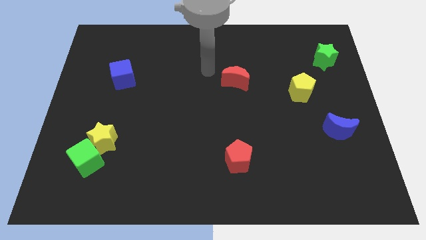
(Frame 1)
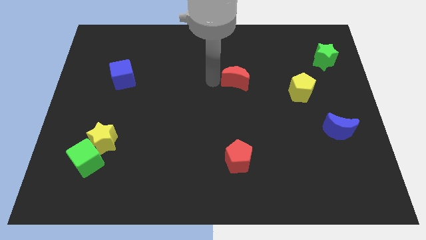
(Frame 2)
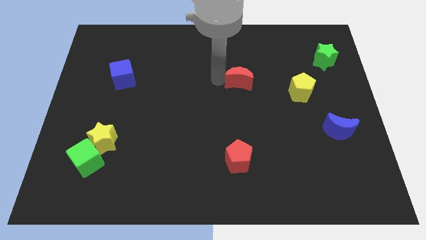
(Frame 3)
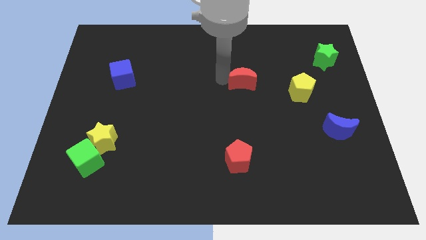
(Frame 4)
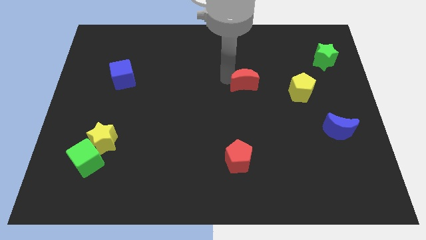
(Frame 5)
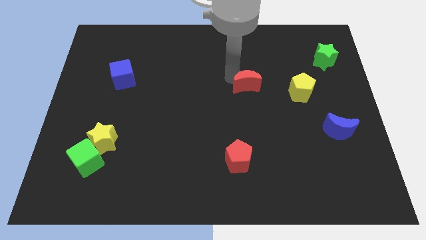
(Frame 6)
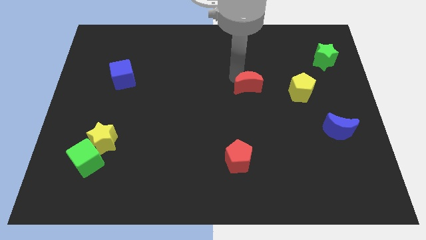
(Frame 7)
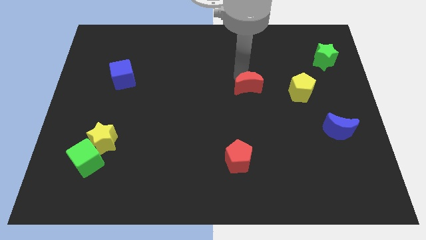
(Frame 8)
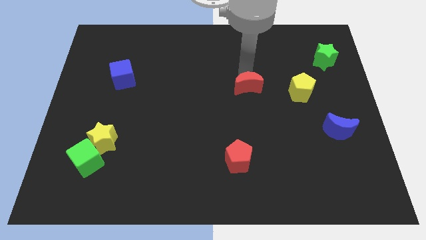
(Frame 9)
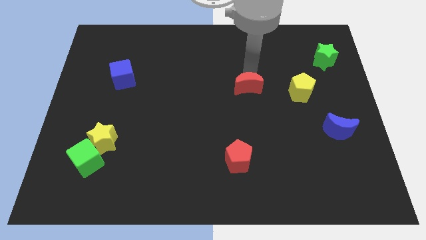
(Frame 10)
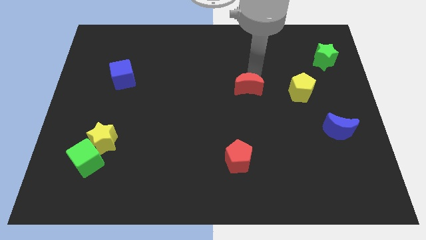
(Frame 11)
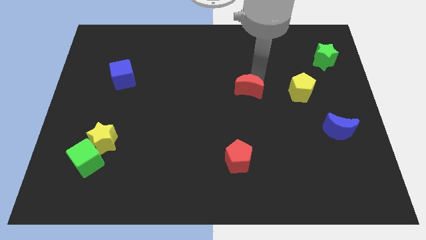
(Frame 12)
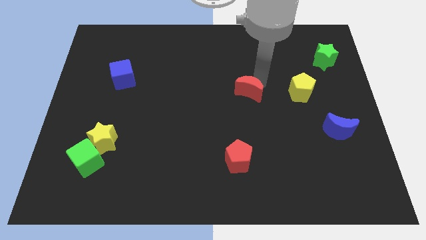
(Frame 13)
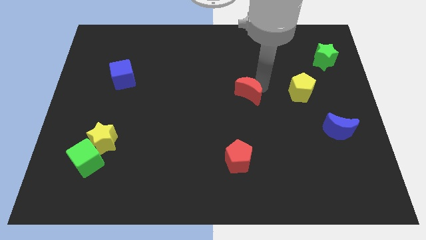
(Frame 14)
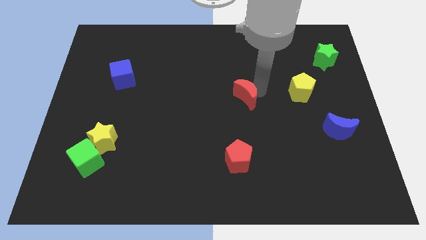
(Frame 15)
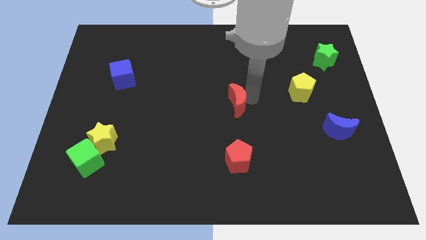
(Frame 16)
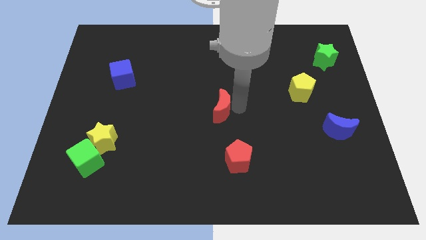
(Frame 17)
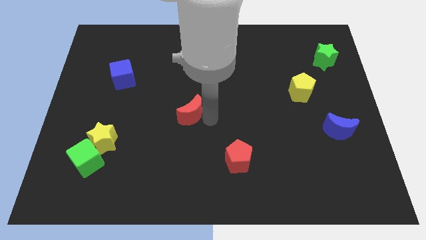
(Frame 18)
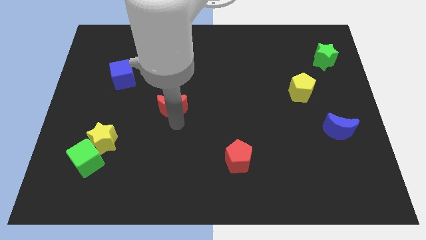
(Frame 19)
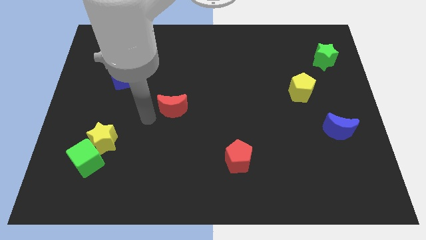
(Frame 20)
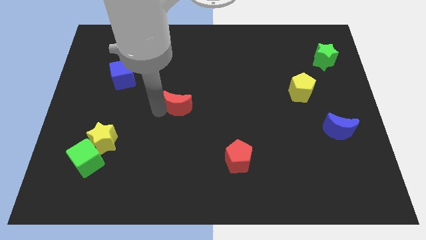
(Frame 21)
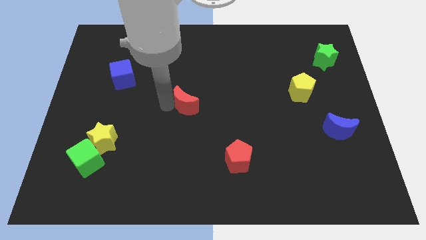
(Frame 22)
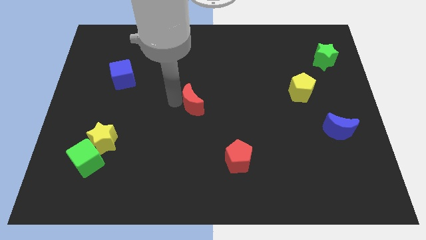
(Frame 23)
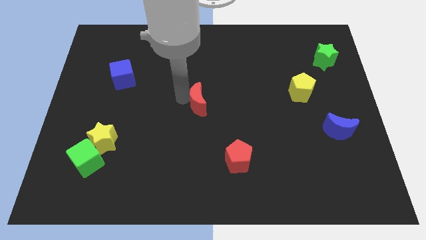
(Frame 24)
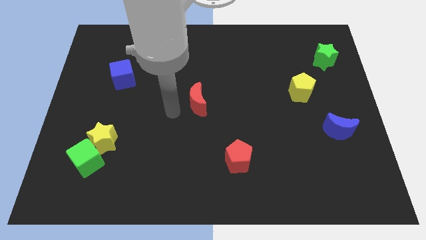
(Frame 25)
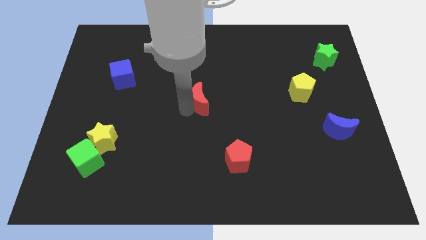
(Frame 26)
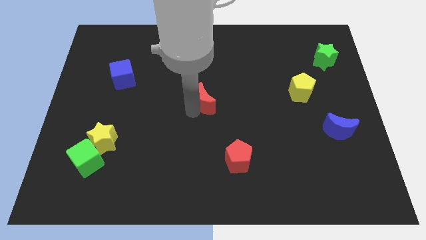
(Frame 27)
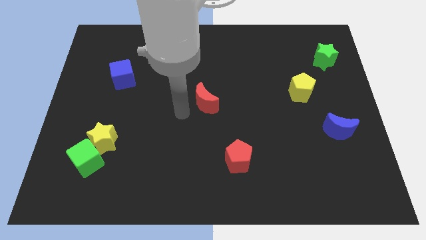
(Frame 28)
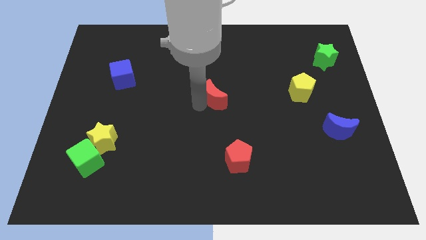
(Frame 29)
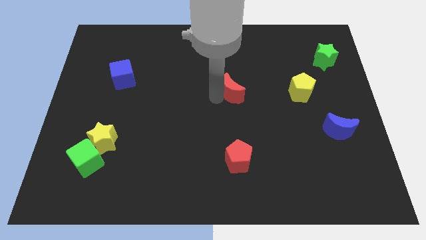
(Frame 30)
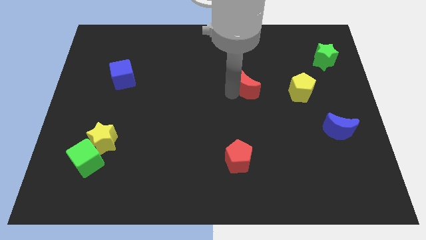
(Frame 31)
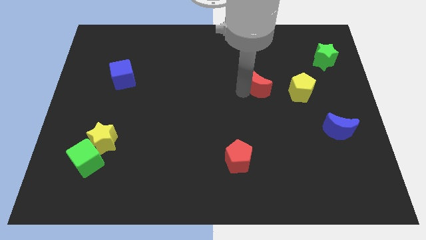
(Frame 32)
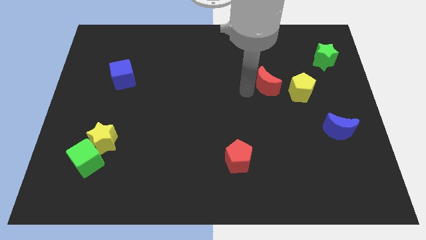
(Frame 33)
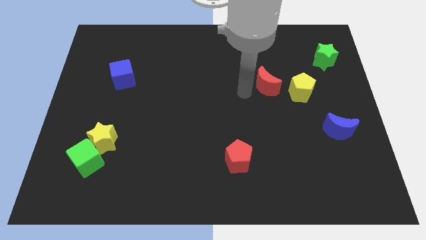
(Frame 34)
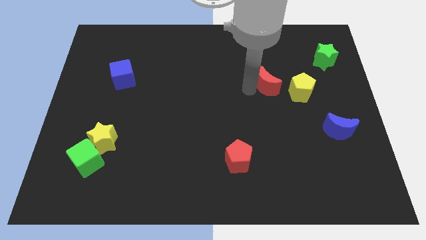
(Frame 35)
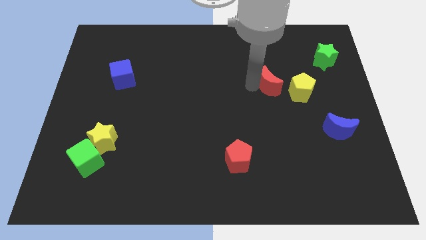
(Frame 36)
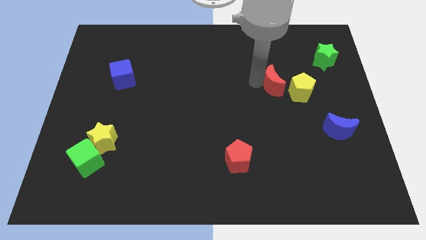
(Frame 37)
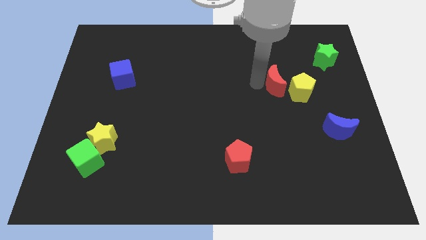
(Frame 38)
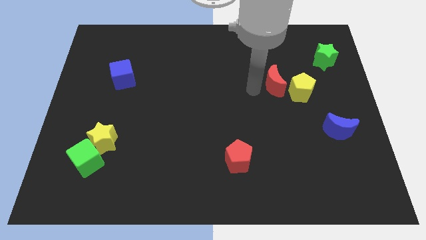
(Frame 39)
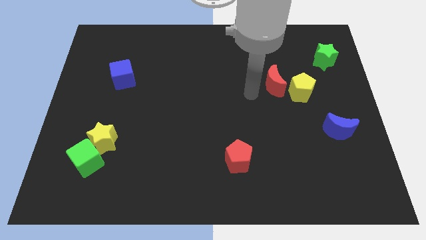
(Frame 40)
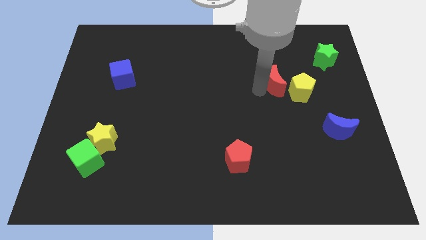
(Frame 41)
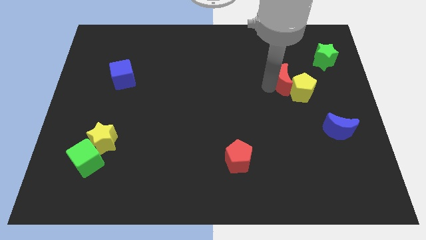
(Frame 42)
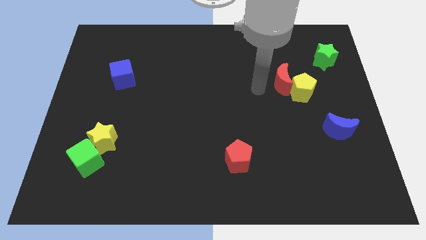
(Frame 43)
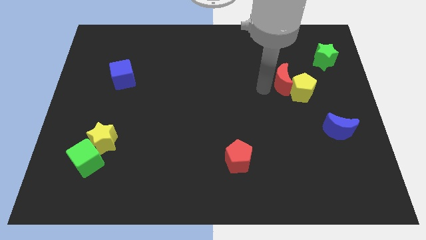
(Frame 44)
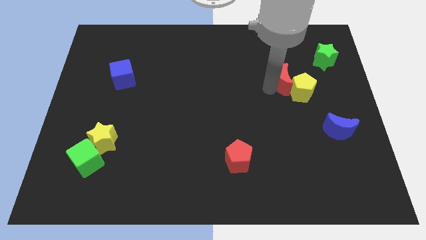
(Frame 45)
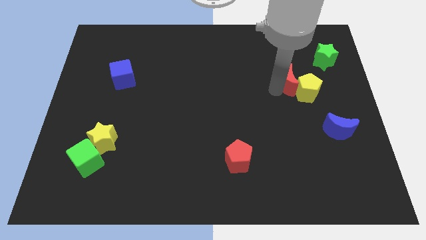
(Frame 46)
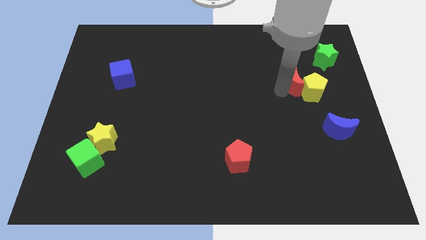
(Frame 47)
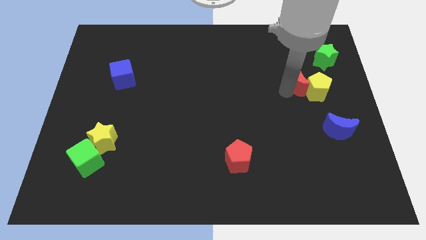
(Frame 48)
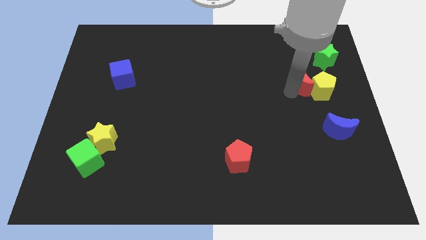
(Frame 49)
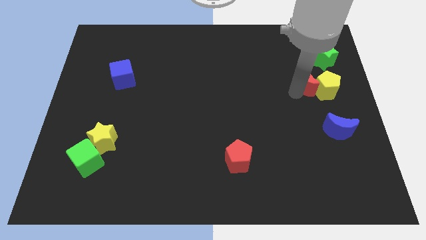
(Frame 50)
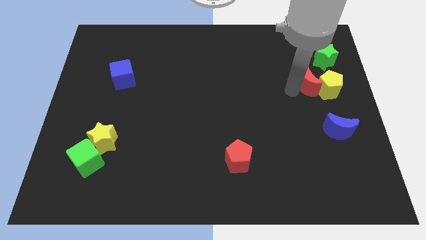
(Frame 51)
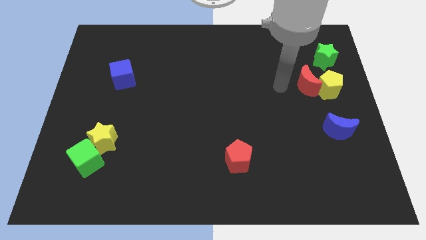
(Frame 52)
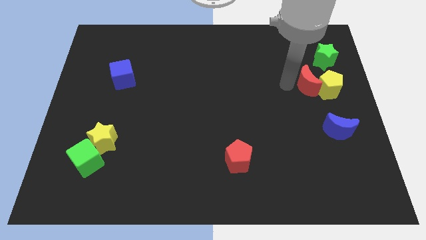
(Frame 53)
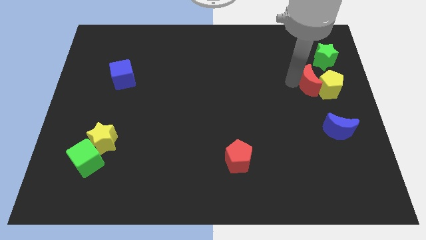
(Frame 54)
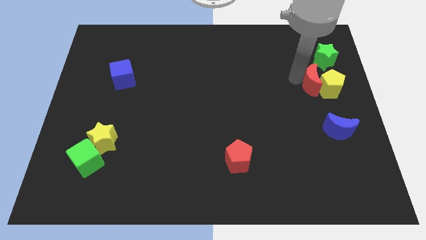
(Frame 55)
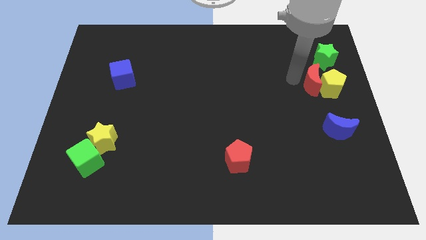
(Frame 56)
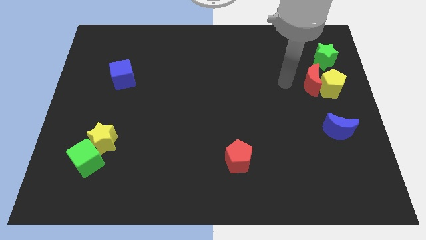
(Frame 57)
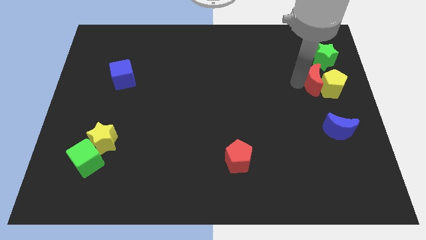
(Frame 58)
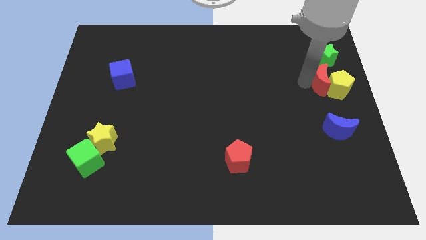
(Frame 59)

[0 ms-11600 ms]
push the red moon to the right side

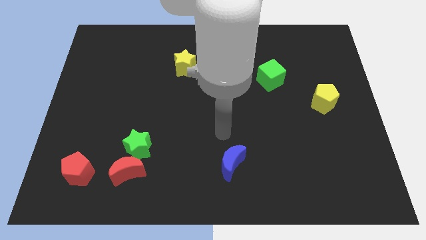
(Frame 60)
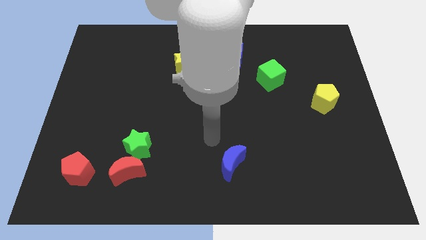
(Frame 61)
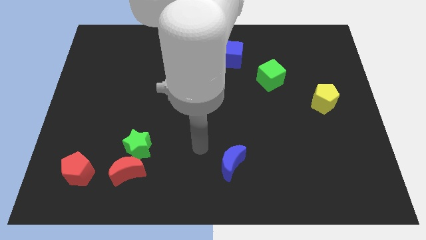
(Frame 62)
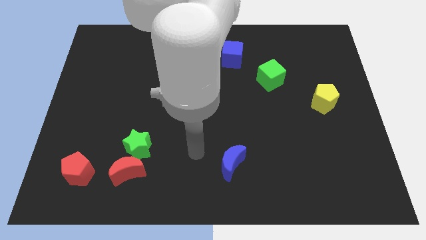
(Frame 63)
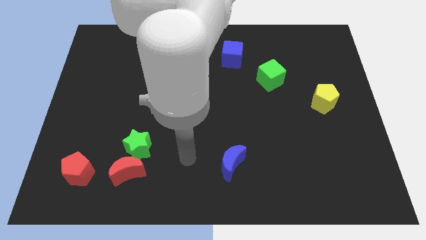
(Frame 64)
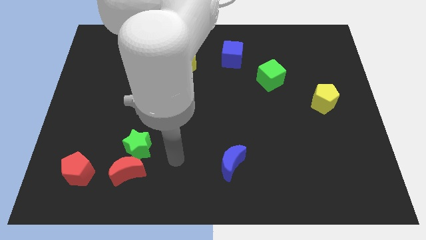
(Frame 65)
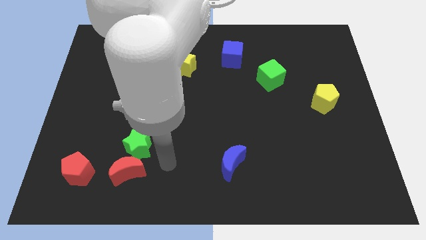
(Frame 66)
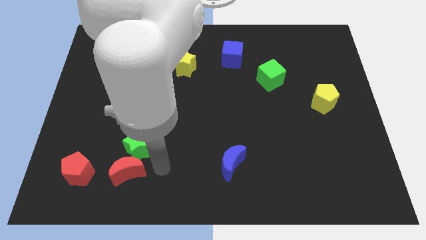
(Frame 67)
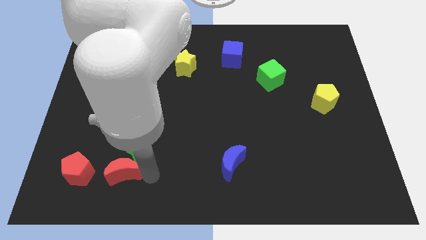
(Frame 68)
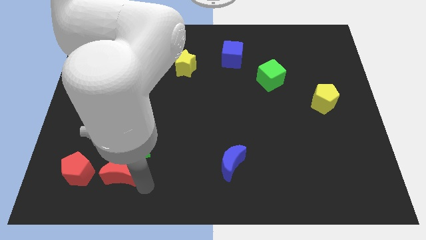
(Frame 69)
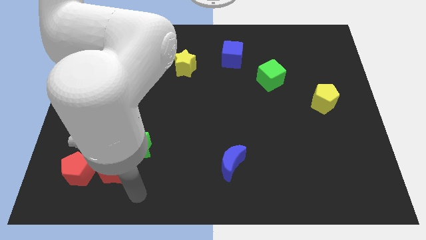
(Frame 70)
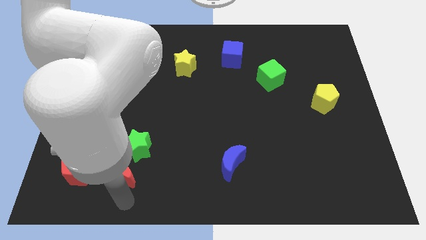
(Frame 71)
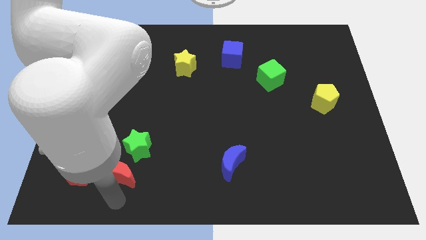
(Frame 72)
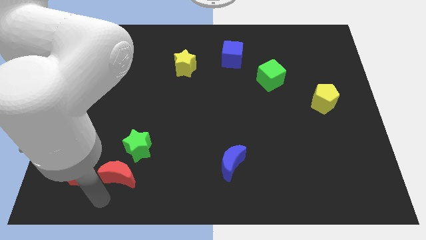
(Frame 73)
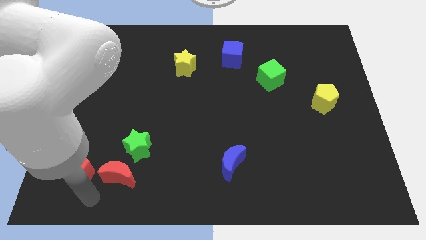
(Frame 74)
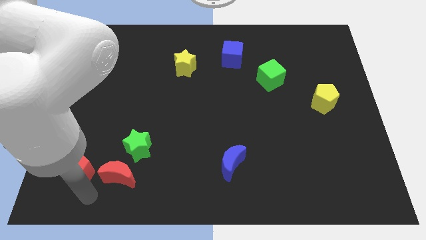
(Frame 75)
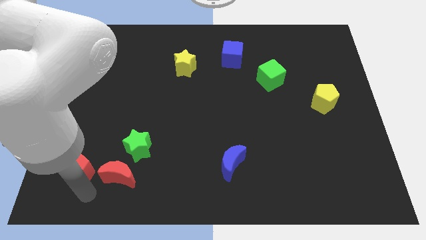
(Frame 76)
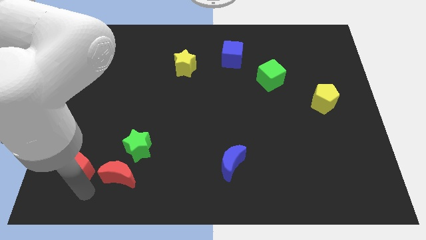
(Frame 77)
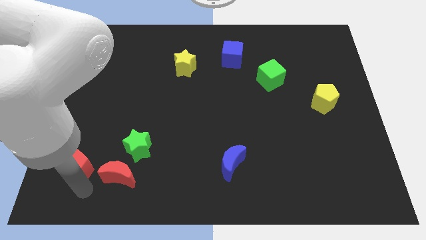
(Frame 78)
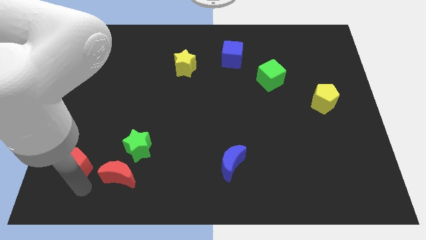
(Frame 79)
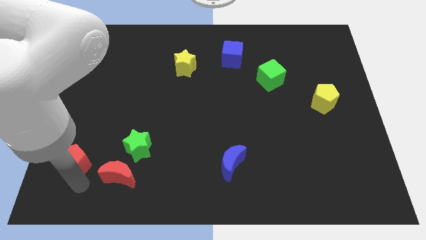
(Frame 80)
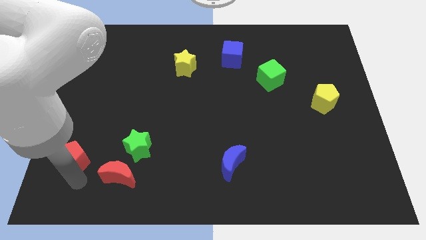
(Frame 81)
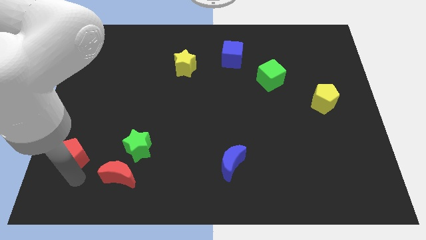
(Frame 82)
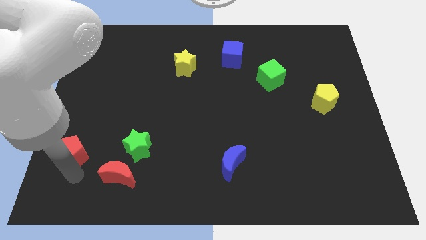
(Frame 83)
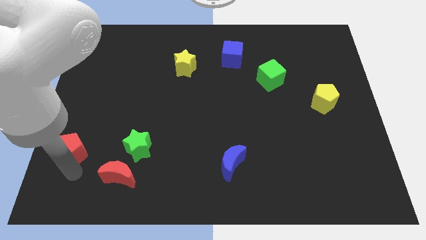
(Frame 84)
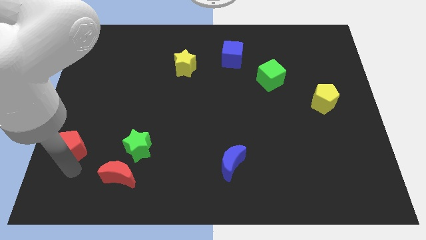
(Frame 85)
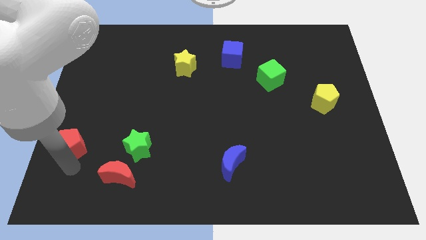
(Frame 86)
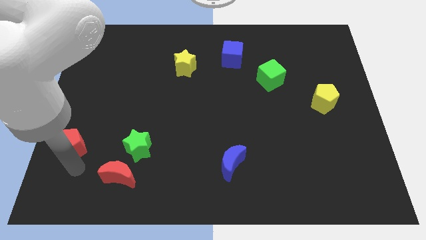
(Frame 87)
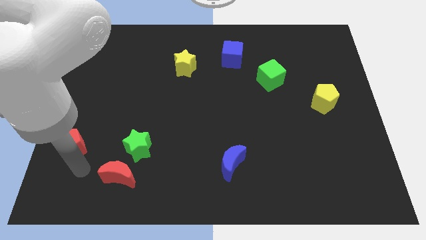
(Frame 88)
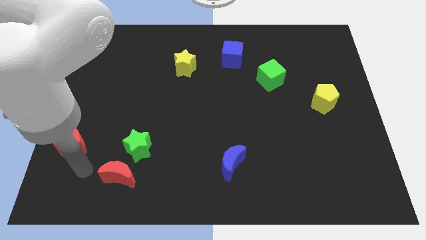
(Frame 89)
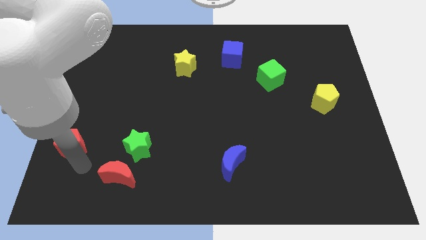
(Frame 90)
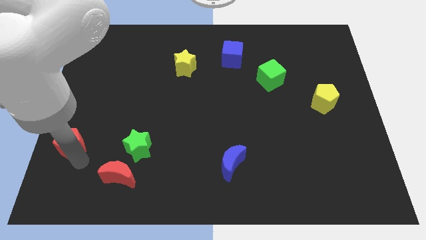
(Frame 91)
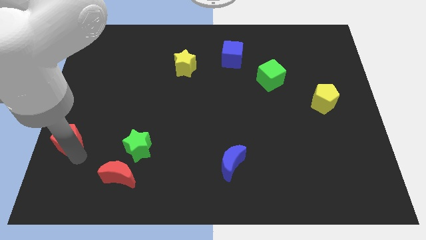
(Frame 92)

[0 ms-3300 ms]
move the red pentagon to the left side of the board
